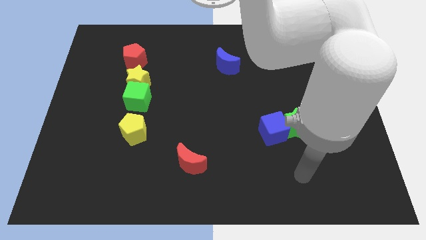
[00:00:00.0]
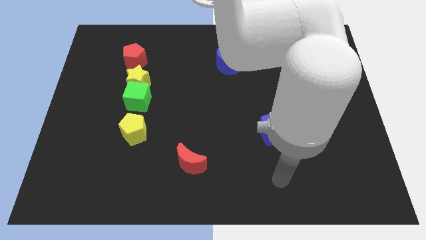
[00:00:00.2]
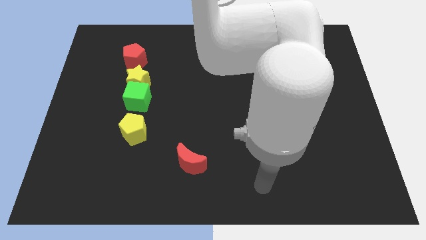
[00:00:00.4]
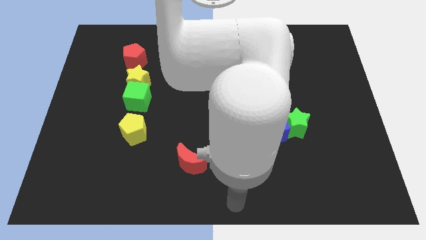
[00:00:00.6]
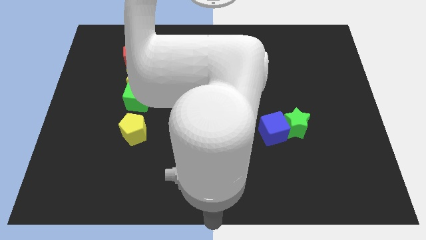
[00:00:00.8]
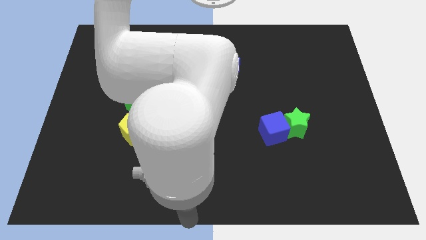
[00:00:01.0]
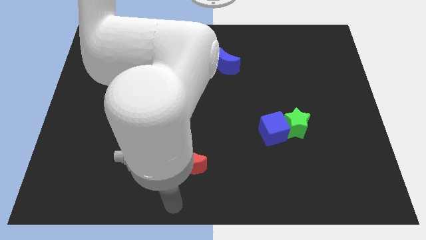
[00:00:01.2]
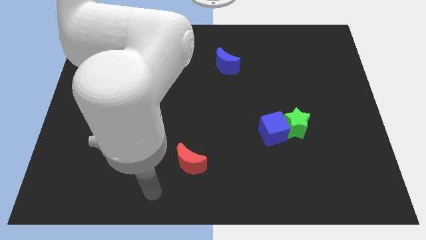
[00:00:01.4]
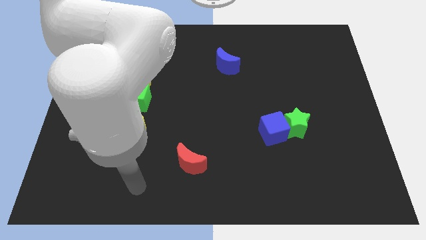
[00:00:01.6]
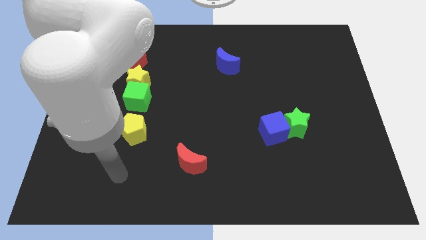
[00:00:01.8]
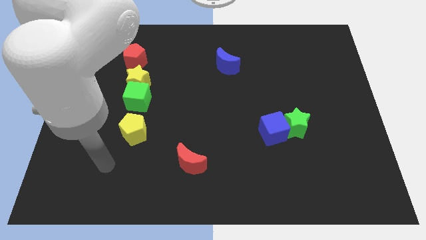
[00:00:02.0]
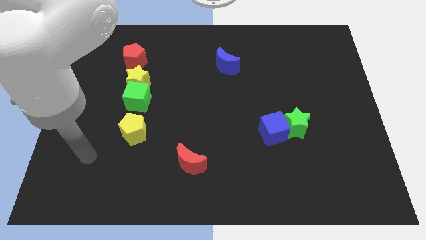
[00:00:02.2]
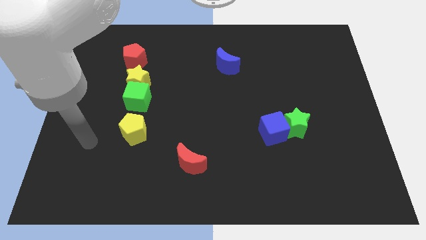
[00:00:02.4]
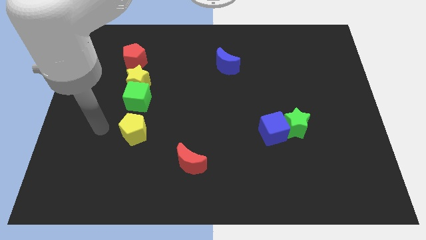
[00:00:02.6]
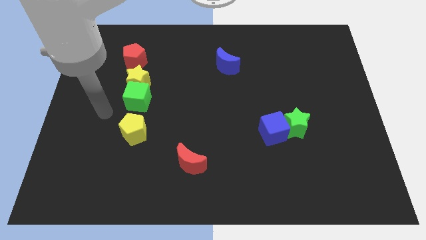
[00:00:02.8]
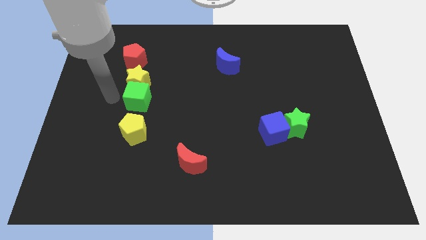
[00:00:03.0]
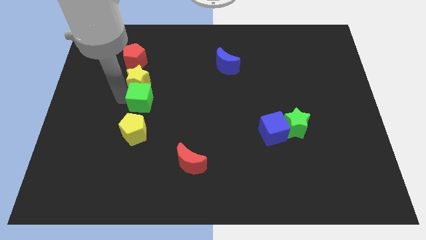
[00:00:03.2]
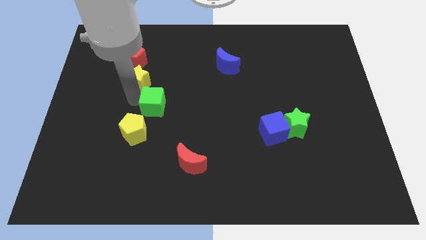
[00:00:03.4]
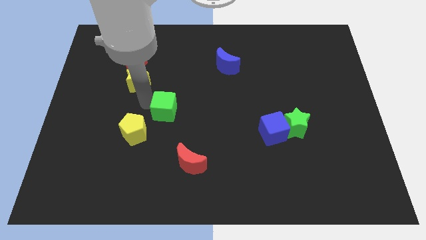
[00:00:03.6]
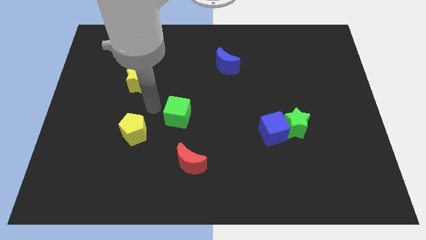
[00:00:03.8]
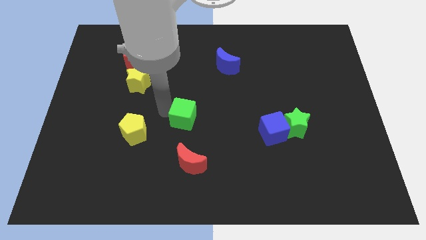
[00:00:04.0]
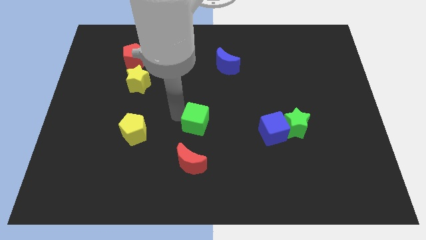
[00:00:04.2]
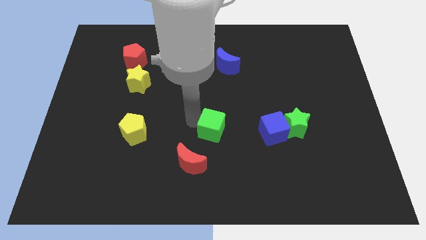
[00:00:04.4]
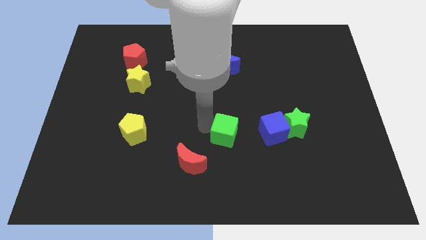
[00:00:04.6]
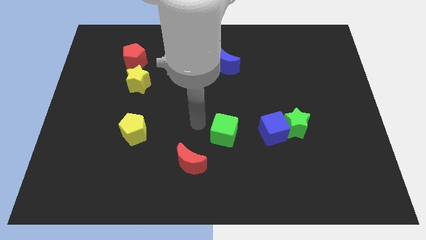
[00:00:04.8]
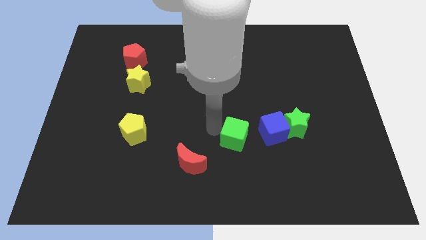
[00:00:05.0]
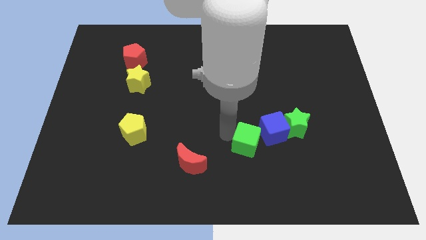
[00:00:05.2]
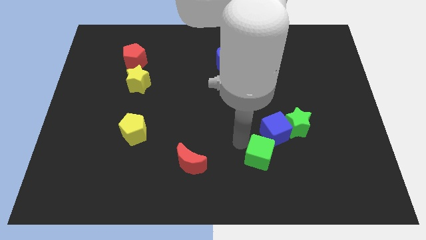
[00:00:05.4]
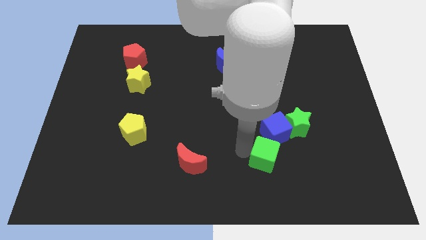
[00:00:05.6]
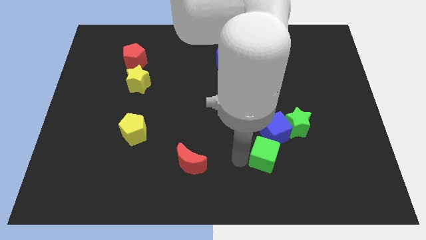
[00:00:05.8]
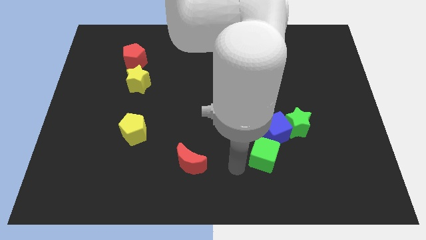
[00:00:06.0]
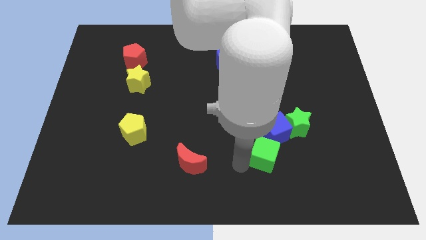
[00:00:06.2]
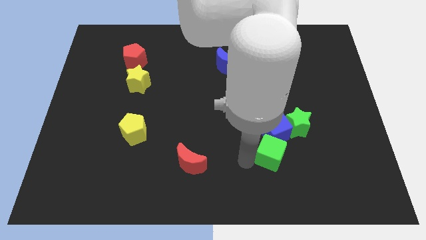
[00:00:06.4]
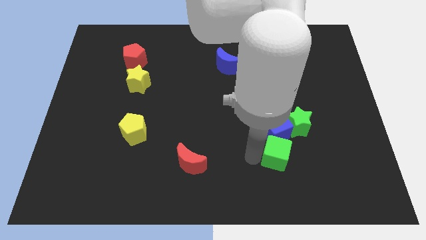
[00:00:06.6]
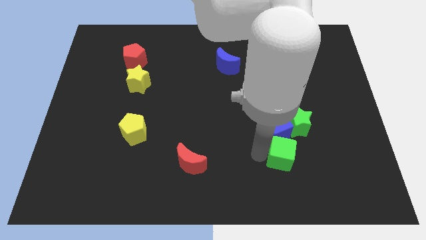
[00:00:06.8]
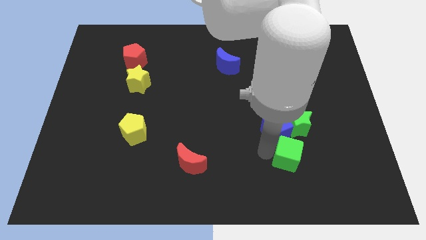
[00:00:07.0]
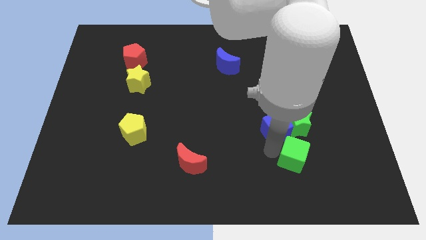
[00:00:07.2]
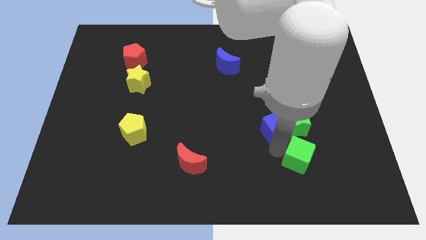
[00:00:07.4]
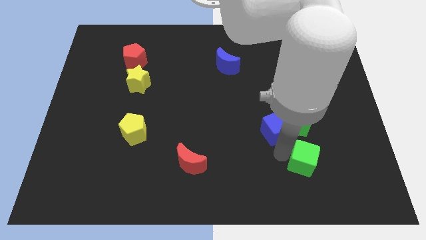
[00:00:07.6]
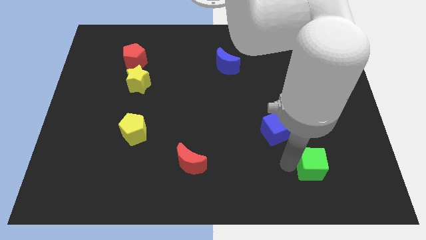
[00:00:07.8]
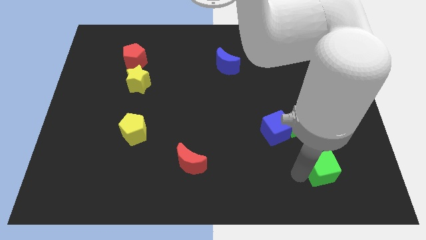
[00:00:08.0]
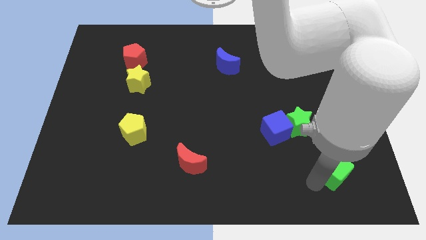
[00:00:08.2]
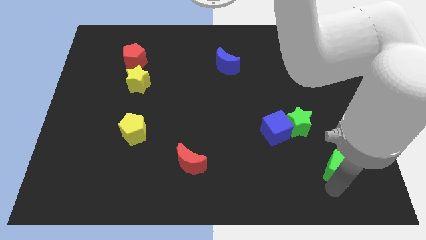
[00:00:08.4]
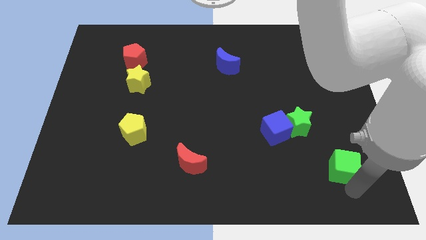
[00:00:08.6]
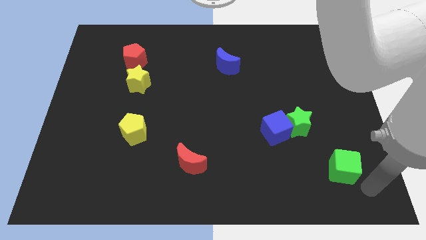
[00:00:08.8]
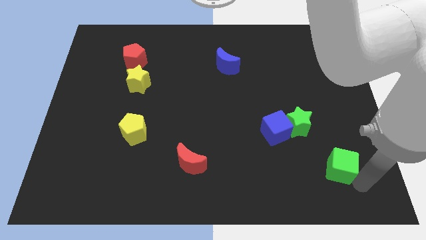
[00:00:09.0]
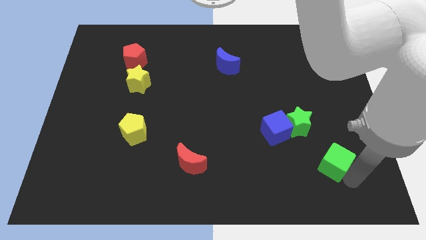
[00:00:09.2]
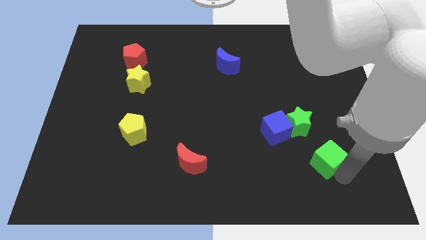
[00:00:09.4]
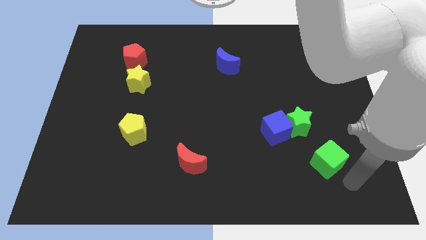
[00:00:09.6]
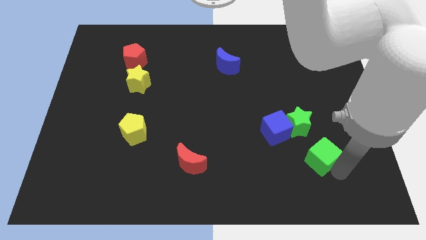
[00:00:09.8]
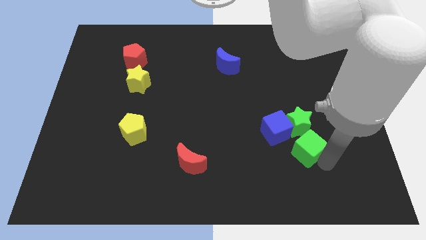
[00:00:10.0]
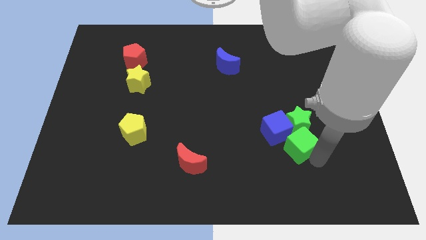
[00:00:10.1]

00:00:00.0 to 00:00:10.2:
slide the green cube to the right side of the blue cube

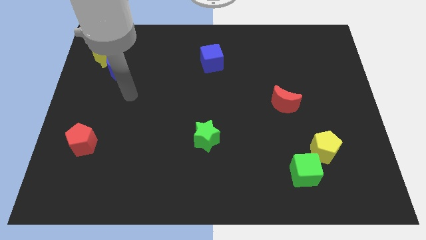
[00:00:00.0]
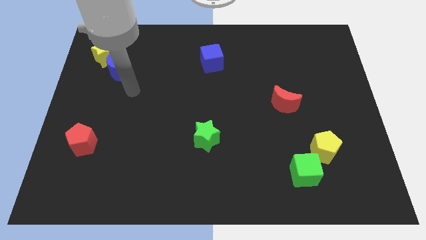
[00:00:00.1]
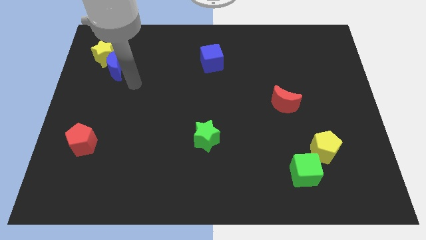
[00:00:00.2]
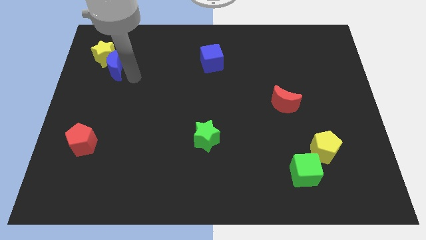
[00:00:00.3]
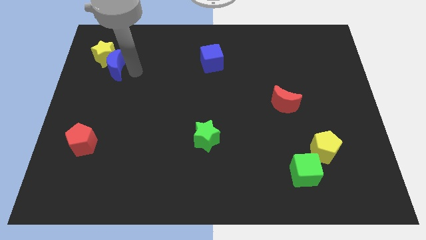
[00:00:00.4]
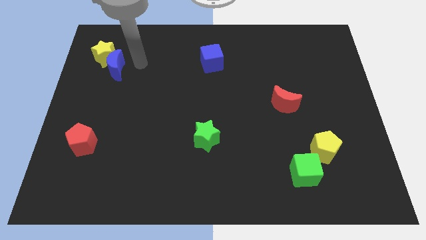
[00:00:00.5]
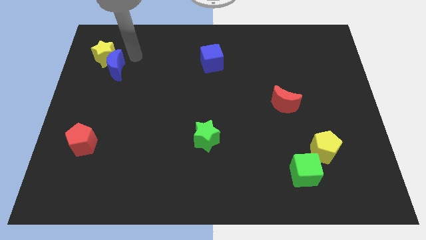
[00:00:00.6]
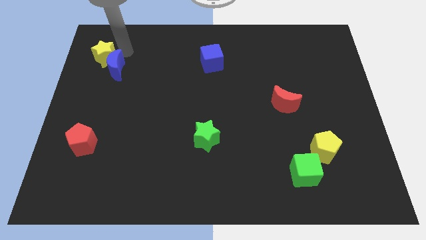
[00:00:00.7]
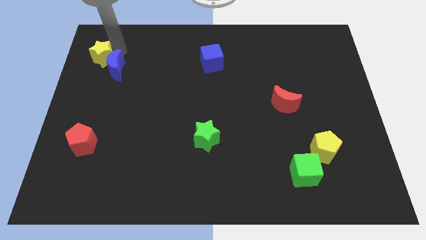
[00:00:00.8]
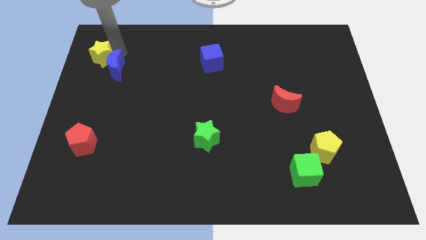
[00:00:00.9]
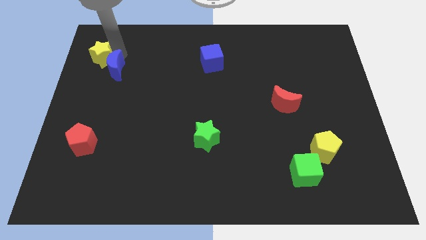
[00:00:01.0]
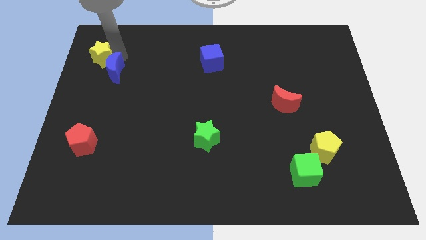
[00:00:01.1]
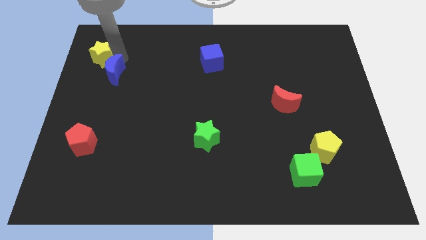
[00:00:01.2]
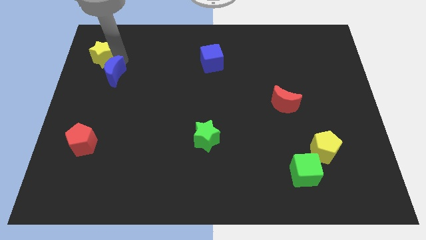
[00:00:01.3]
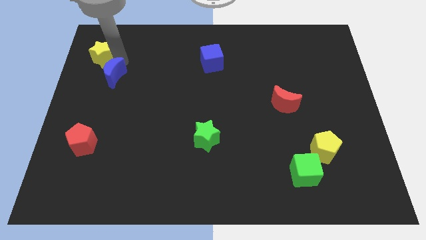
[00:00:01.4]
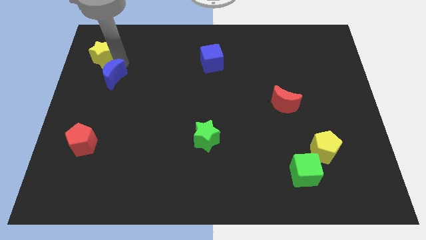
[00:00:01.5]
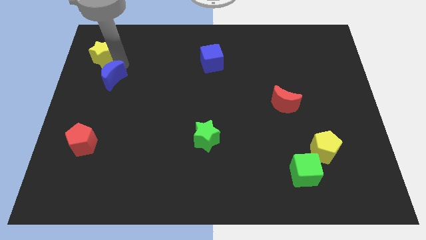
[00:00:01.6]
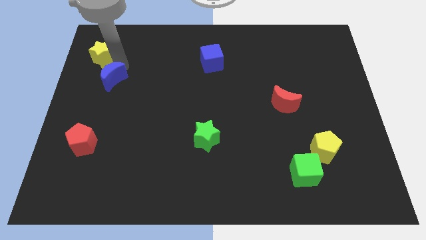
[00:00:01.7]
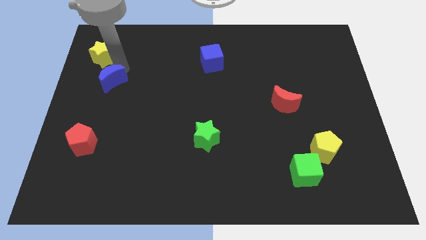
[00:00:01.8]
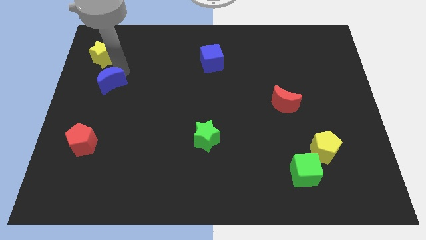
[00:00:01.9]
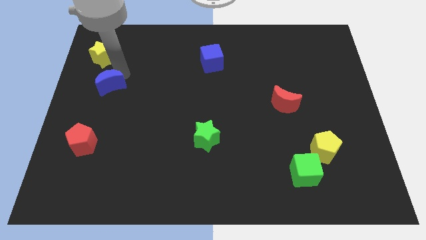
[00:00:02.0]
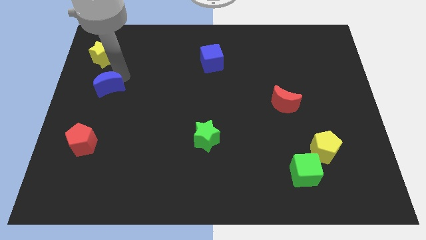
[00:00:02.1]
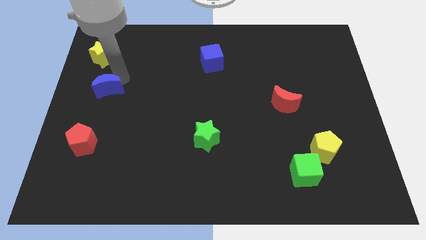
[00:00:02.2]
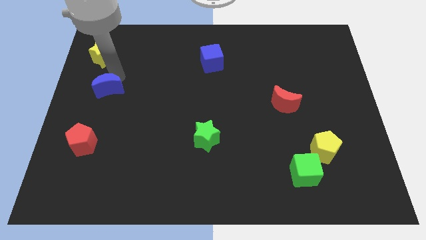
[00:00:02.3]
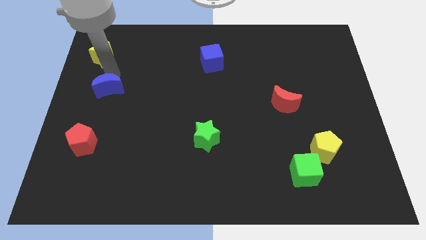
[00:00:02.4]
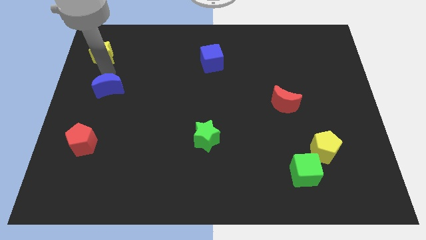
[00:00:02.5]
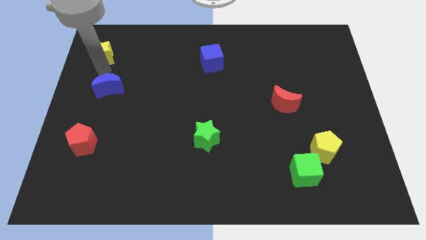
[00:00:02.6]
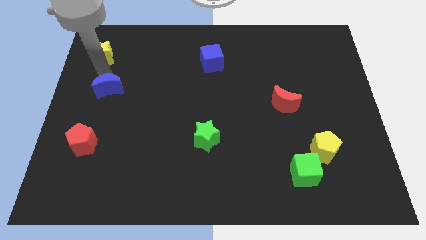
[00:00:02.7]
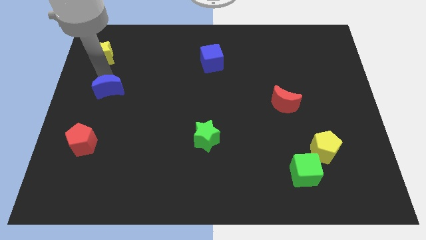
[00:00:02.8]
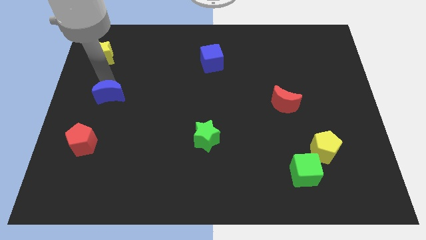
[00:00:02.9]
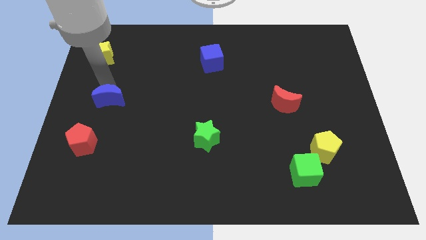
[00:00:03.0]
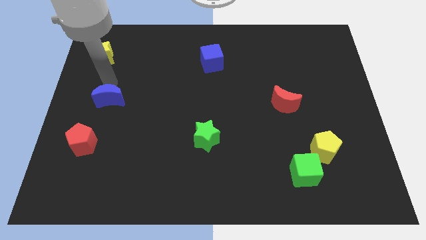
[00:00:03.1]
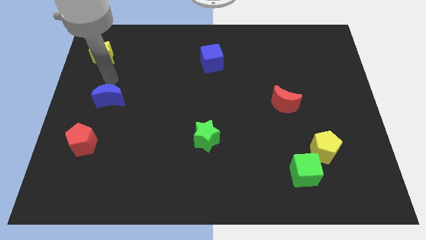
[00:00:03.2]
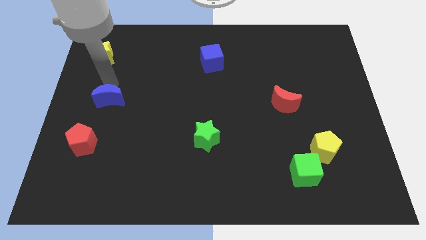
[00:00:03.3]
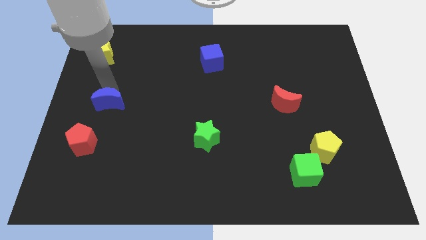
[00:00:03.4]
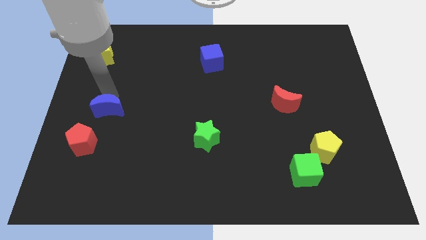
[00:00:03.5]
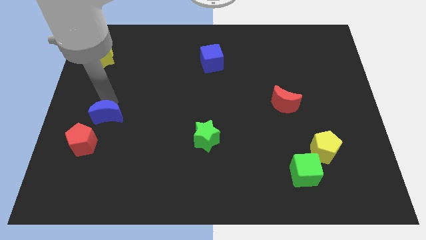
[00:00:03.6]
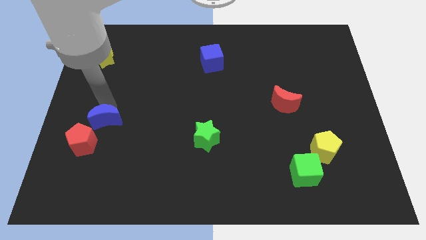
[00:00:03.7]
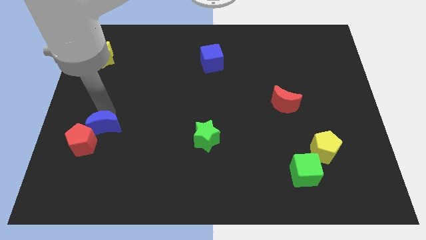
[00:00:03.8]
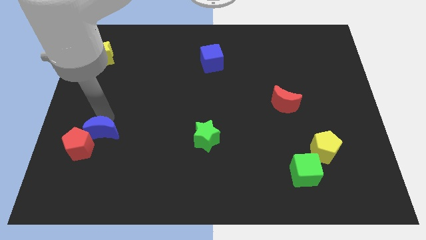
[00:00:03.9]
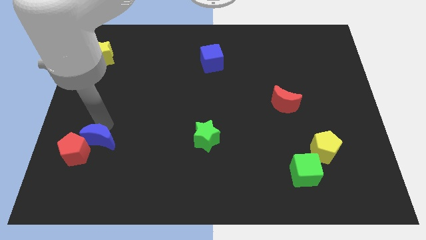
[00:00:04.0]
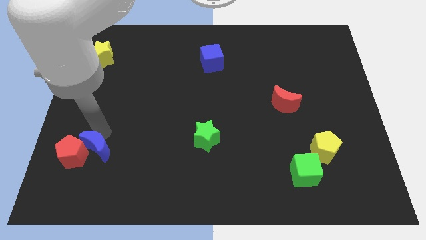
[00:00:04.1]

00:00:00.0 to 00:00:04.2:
put the blue moon diagonally down and to the right of the red pentagon
